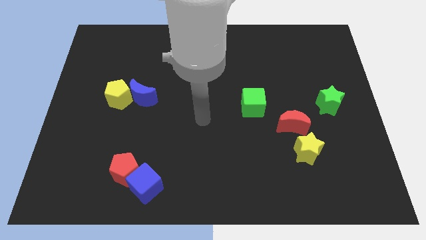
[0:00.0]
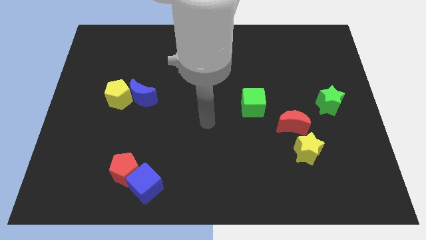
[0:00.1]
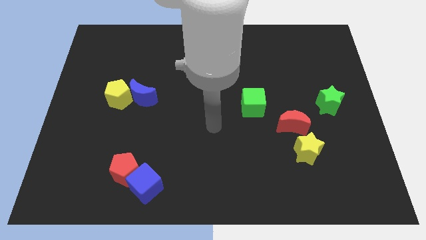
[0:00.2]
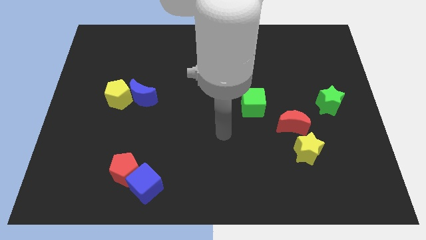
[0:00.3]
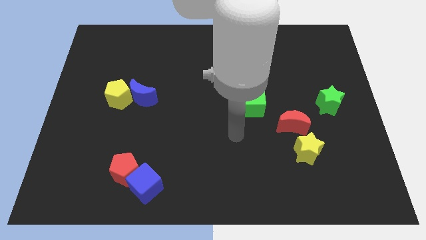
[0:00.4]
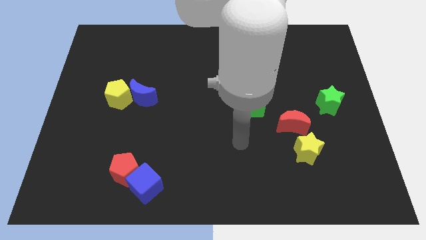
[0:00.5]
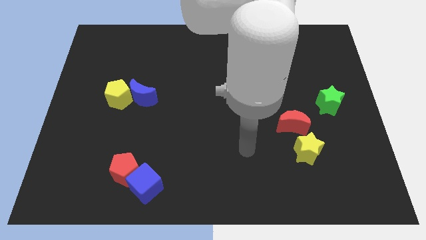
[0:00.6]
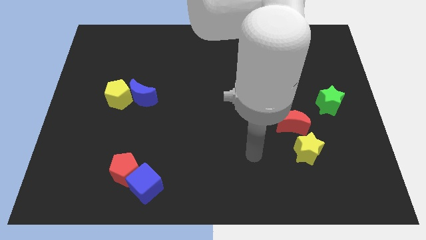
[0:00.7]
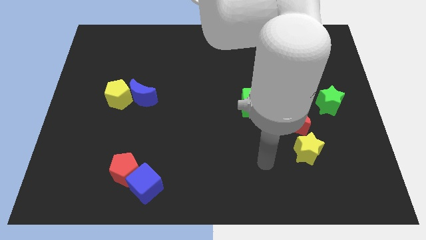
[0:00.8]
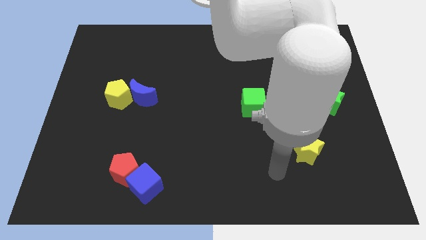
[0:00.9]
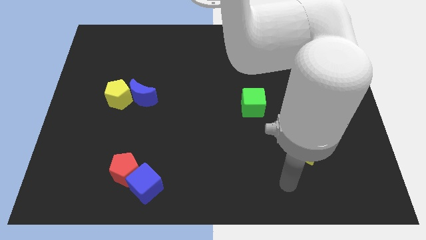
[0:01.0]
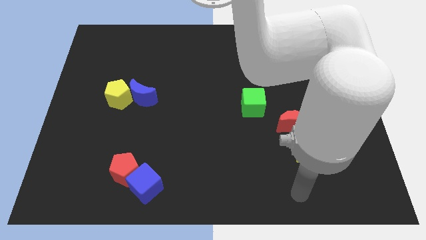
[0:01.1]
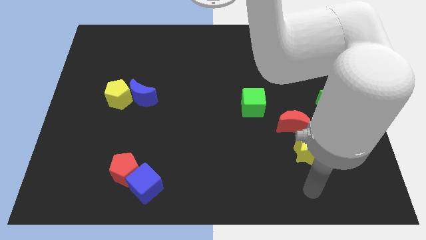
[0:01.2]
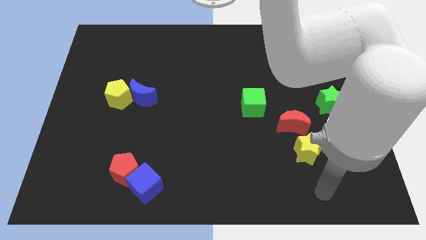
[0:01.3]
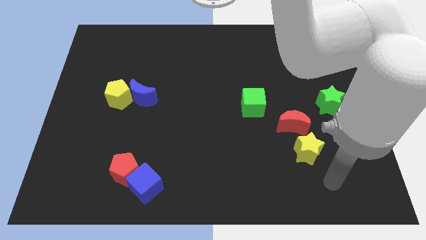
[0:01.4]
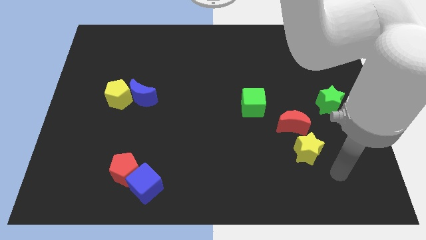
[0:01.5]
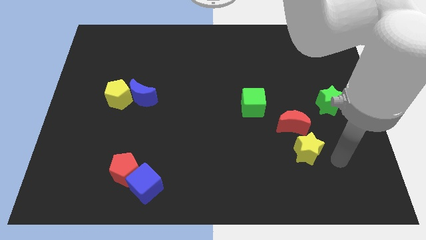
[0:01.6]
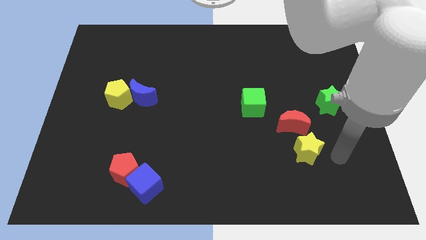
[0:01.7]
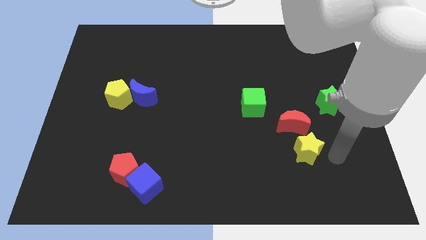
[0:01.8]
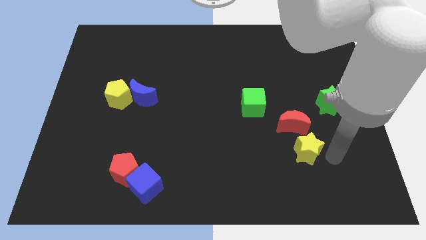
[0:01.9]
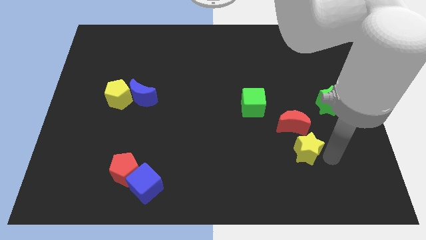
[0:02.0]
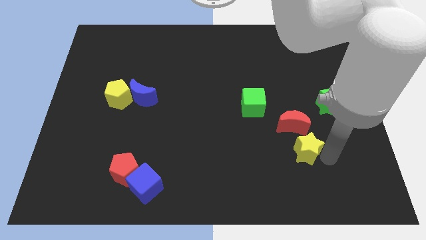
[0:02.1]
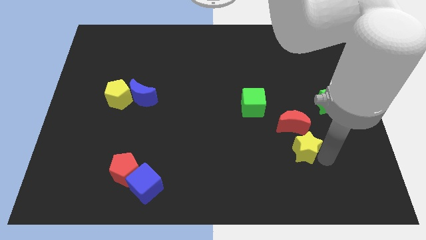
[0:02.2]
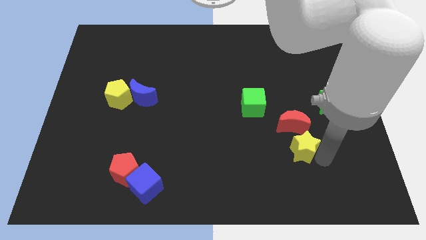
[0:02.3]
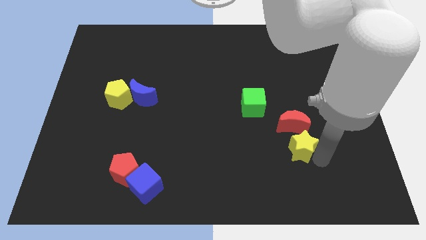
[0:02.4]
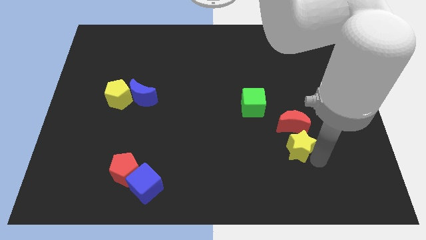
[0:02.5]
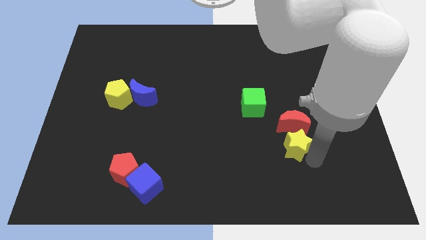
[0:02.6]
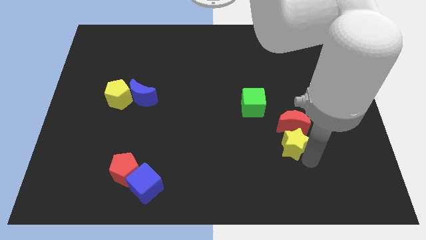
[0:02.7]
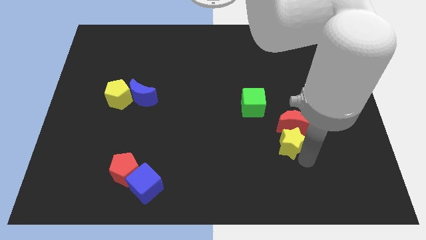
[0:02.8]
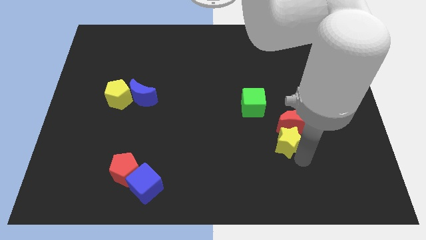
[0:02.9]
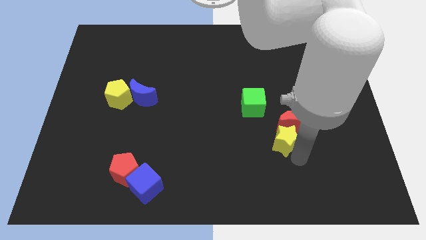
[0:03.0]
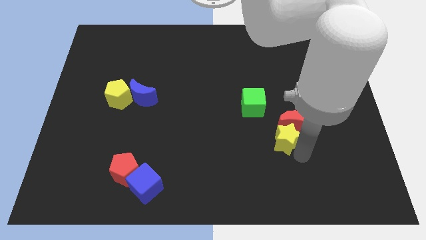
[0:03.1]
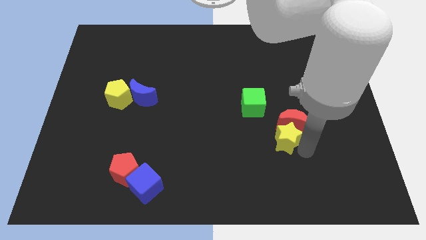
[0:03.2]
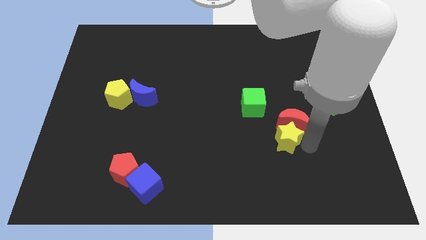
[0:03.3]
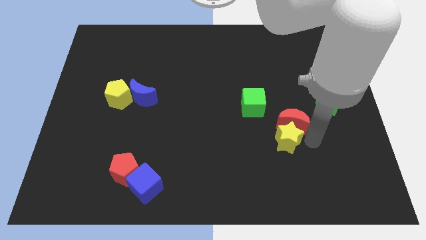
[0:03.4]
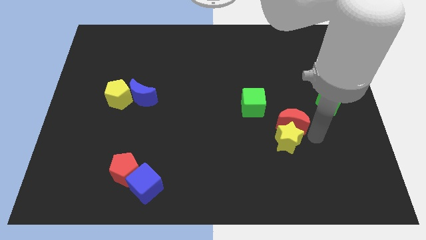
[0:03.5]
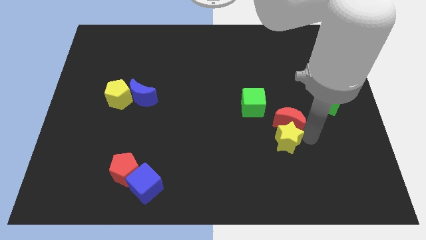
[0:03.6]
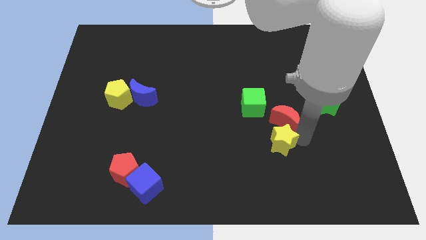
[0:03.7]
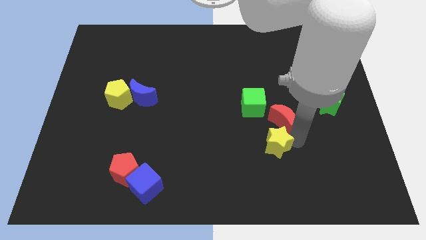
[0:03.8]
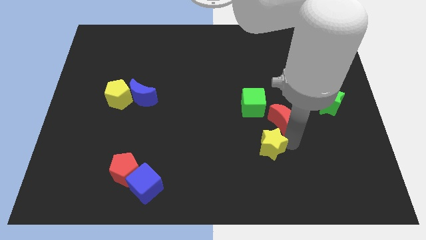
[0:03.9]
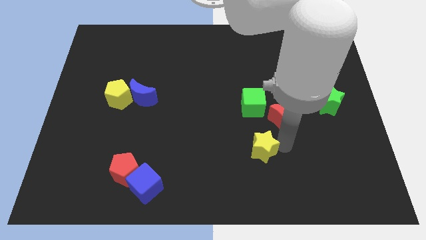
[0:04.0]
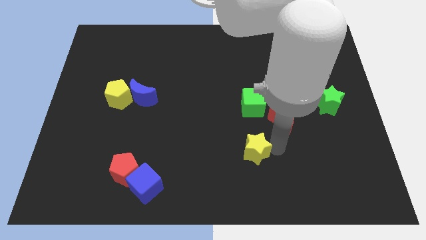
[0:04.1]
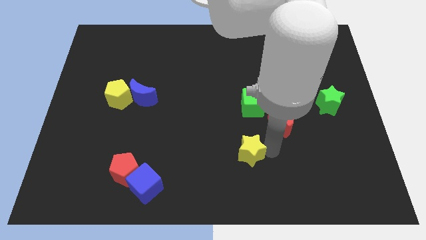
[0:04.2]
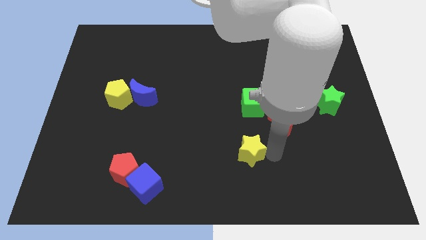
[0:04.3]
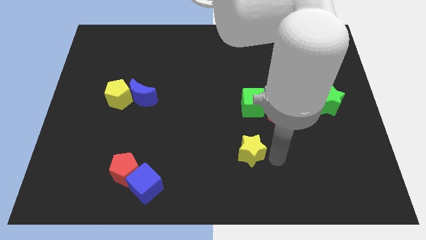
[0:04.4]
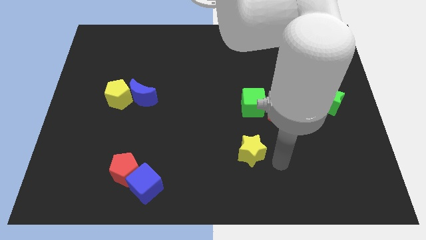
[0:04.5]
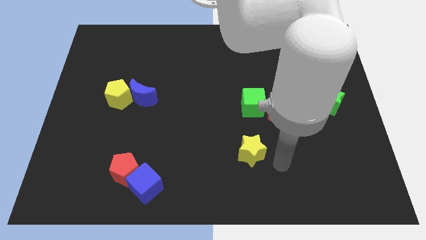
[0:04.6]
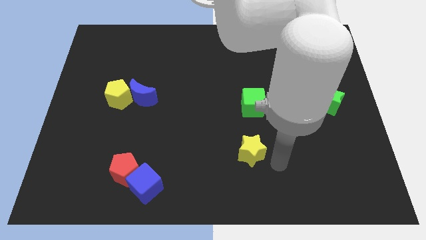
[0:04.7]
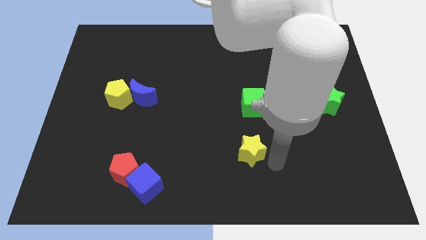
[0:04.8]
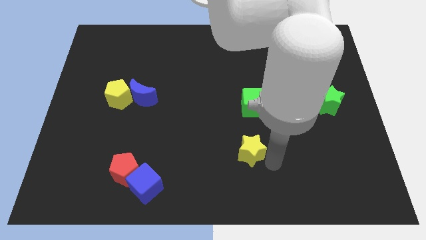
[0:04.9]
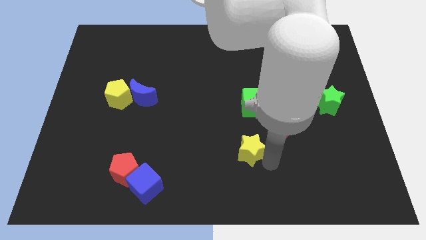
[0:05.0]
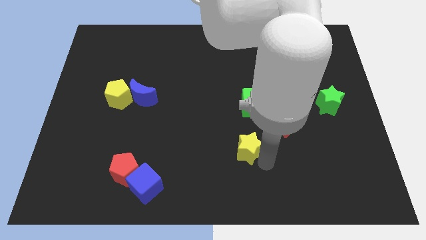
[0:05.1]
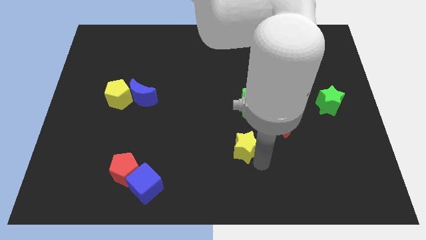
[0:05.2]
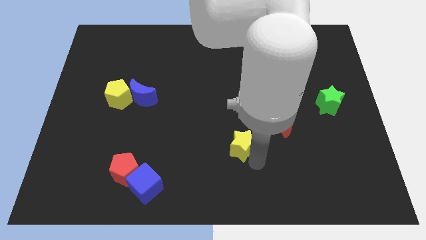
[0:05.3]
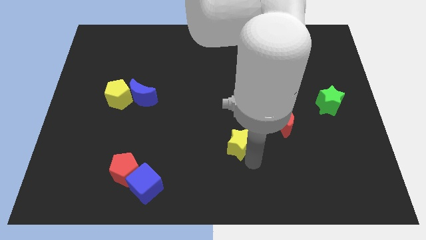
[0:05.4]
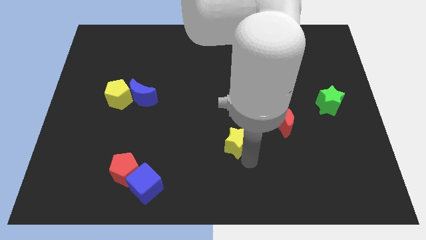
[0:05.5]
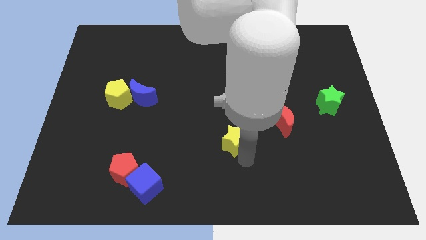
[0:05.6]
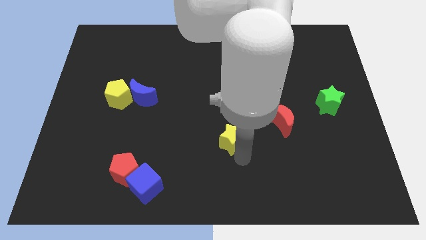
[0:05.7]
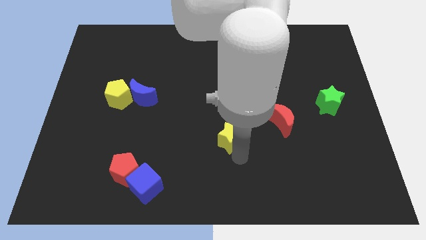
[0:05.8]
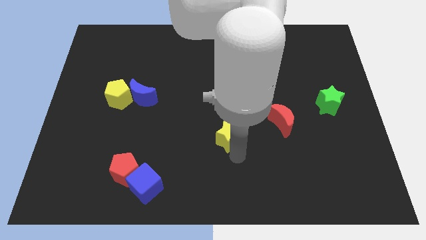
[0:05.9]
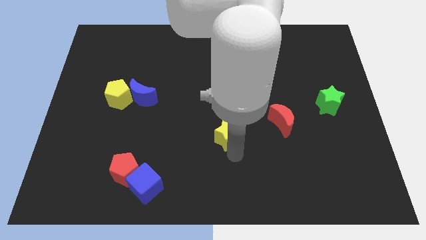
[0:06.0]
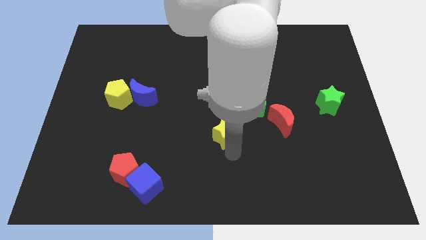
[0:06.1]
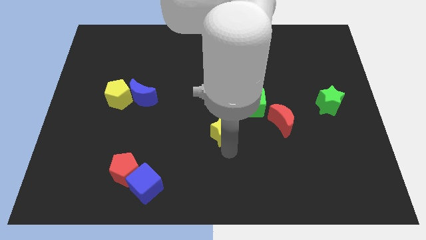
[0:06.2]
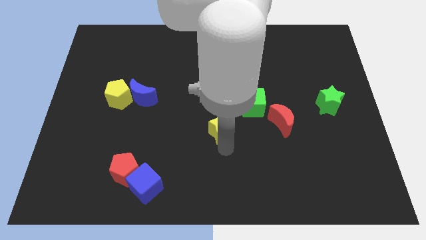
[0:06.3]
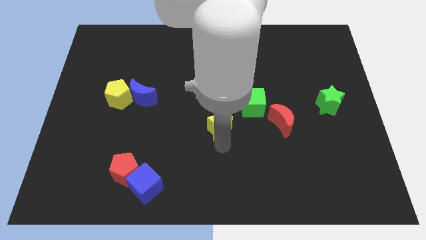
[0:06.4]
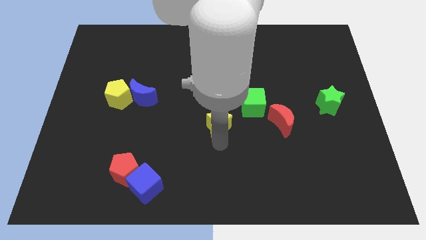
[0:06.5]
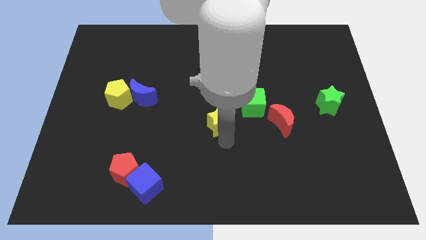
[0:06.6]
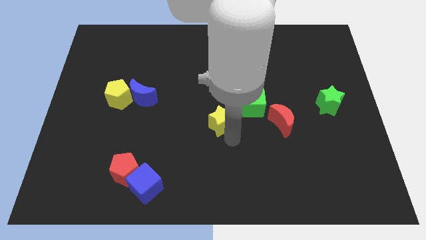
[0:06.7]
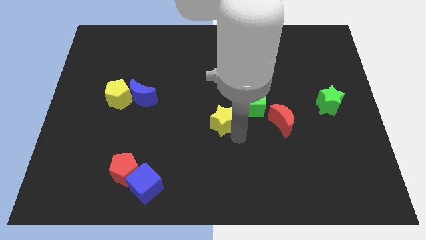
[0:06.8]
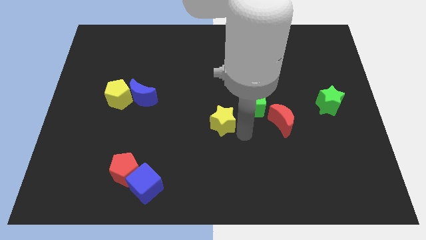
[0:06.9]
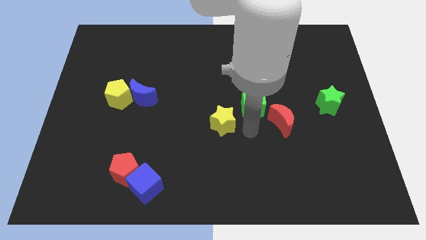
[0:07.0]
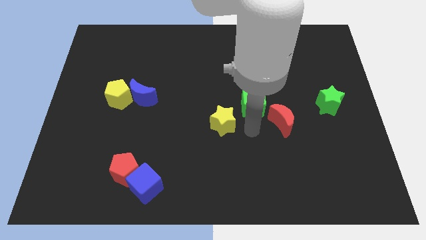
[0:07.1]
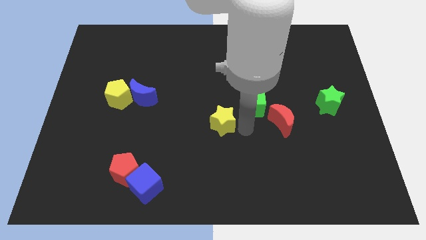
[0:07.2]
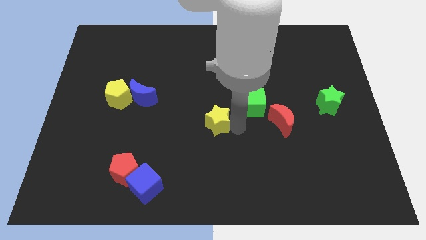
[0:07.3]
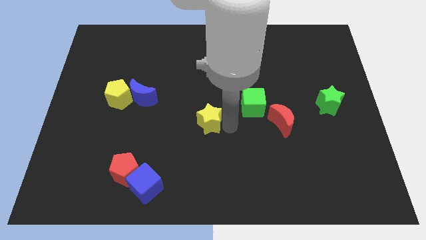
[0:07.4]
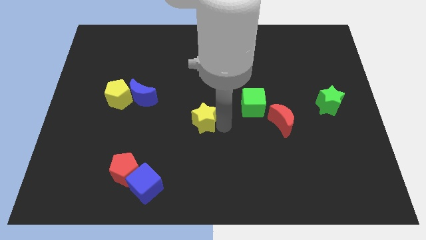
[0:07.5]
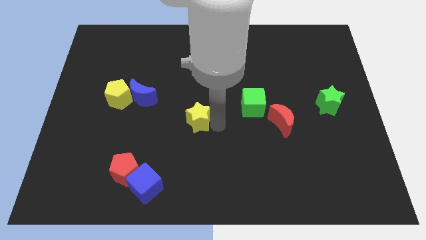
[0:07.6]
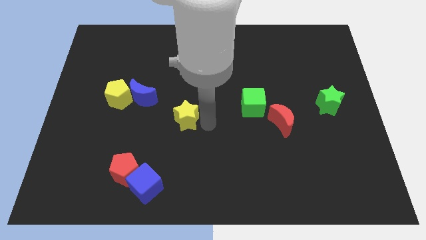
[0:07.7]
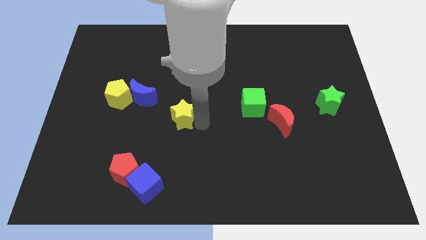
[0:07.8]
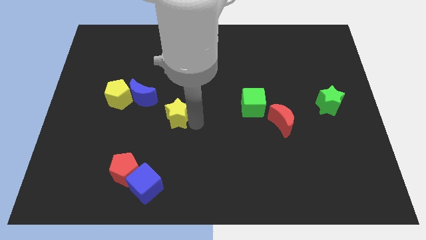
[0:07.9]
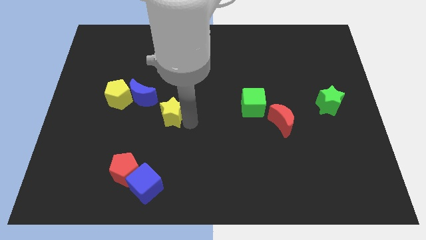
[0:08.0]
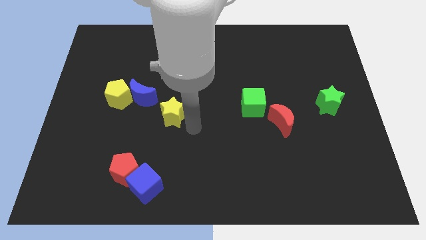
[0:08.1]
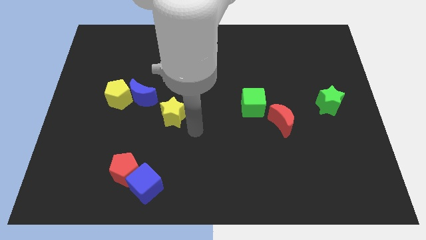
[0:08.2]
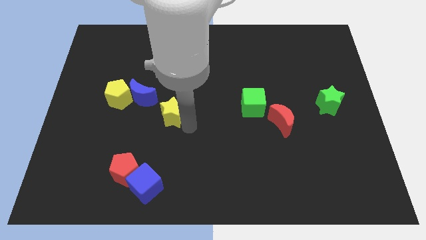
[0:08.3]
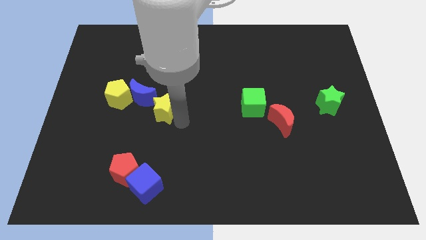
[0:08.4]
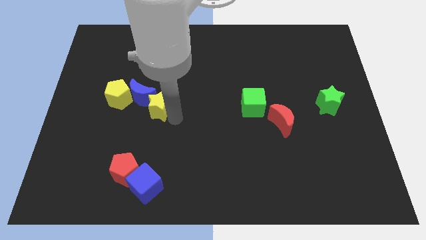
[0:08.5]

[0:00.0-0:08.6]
move the yellow star towards the blue moon
